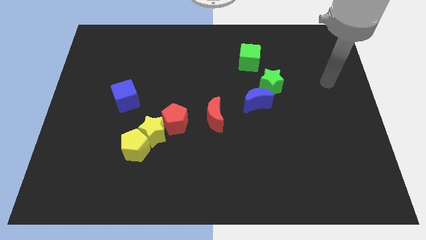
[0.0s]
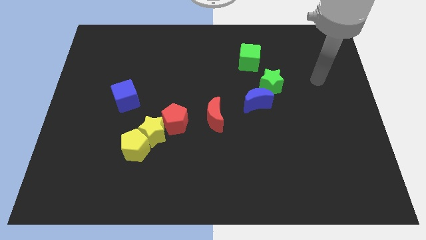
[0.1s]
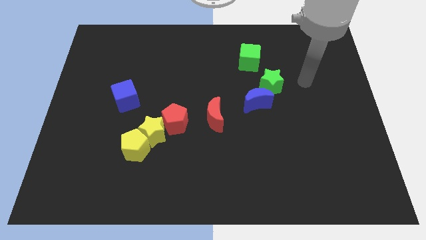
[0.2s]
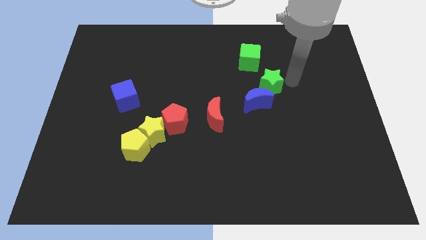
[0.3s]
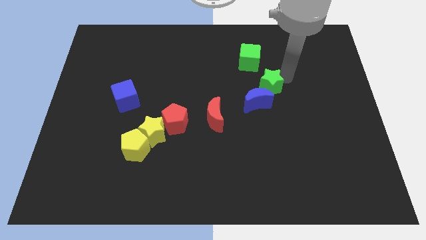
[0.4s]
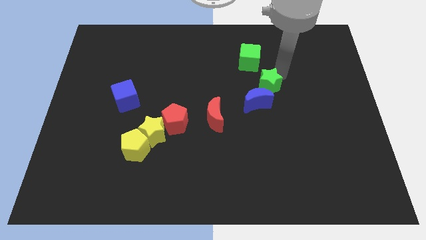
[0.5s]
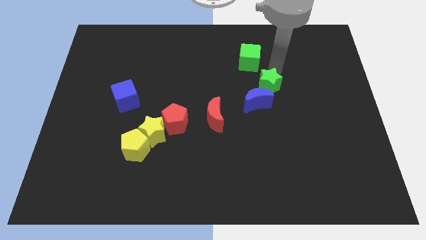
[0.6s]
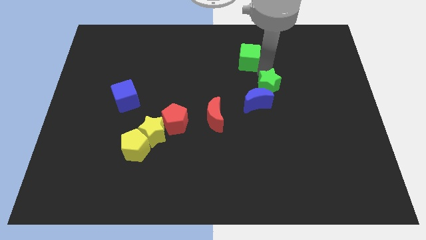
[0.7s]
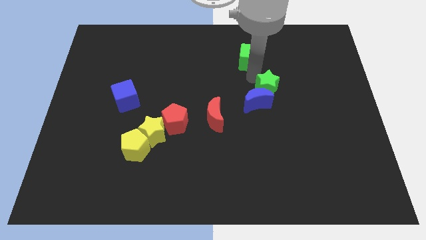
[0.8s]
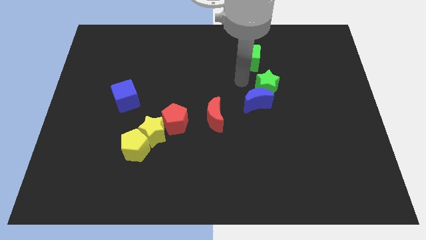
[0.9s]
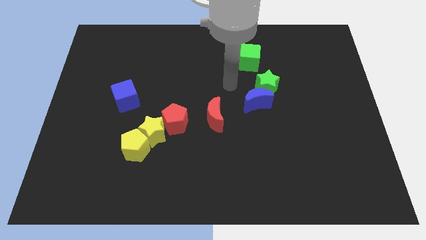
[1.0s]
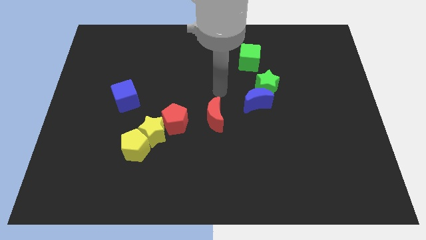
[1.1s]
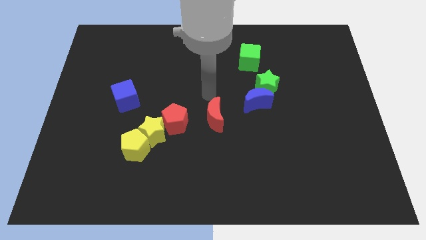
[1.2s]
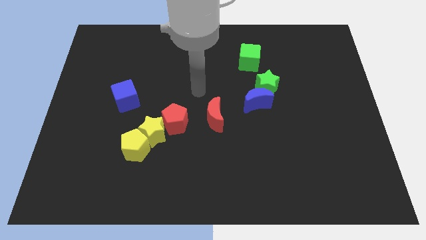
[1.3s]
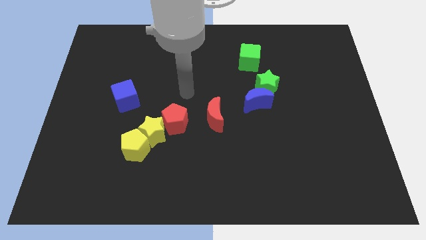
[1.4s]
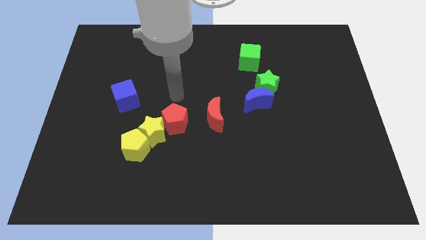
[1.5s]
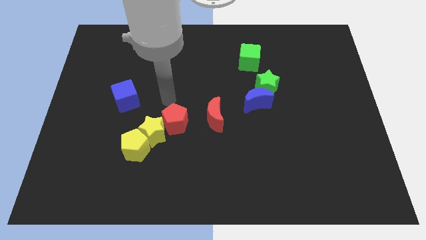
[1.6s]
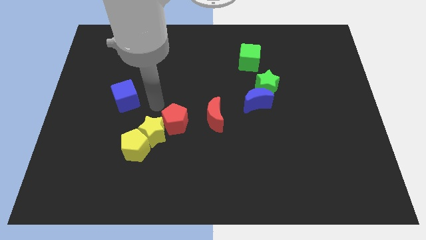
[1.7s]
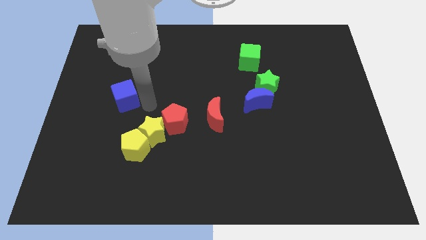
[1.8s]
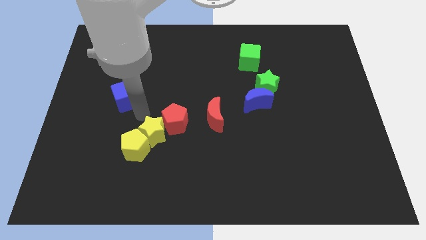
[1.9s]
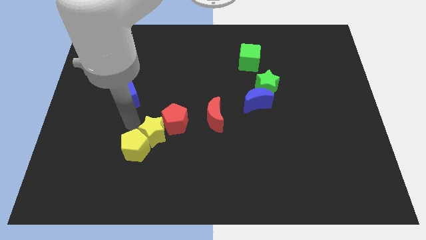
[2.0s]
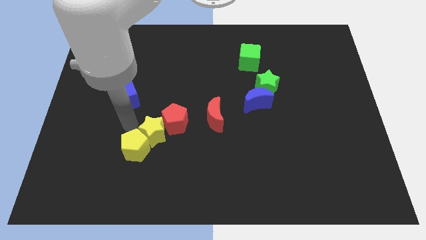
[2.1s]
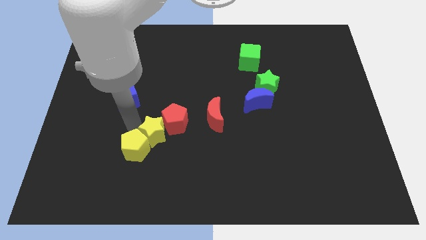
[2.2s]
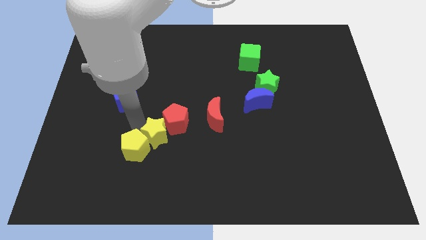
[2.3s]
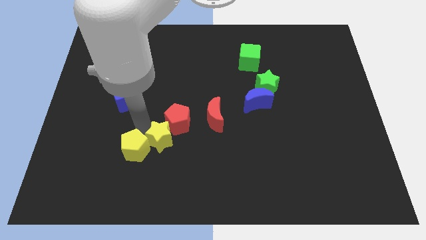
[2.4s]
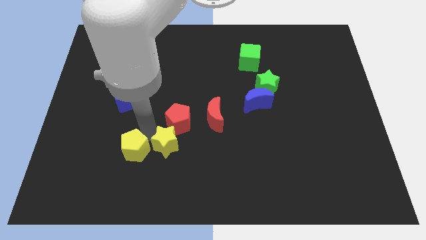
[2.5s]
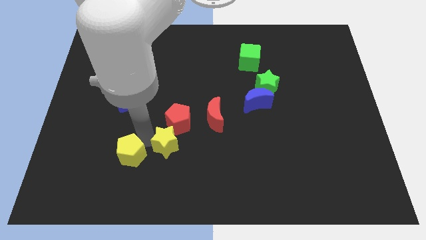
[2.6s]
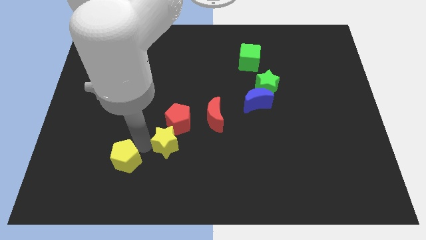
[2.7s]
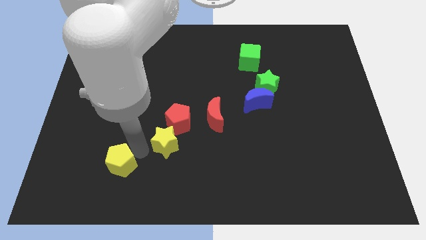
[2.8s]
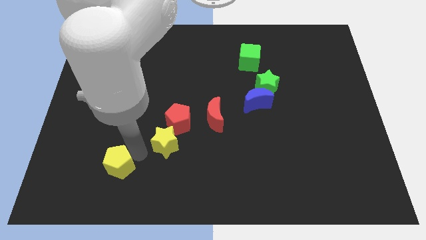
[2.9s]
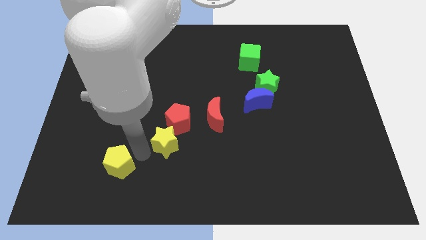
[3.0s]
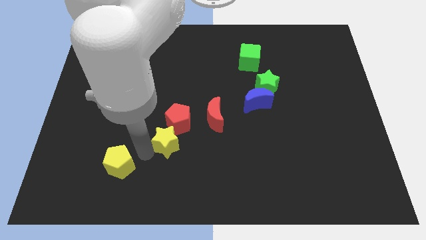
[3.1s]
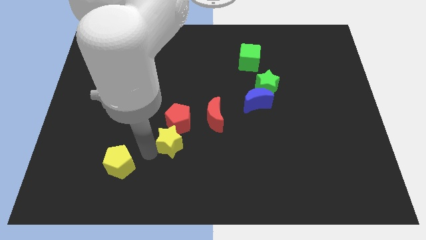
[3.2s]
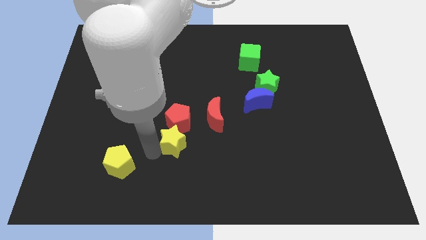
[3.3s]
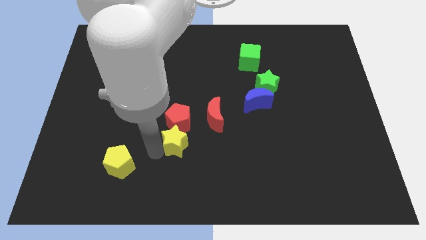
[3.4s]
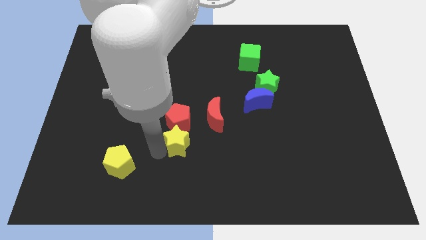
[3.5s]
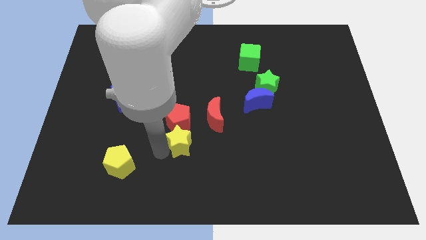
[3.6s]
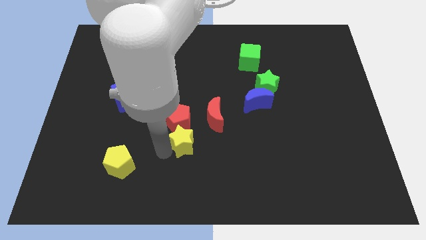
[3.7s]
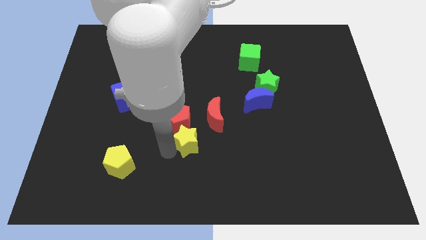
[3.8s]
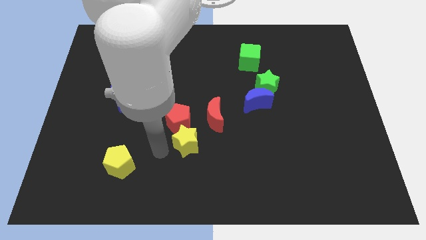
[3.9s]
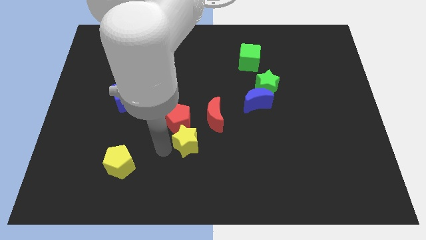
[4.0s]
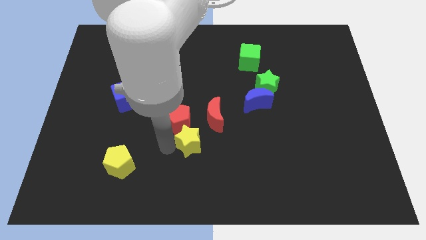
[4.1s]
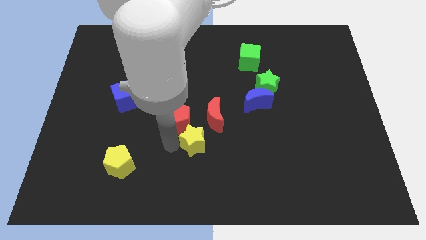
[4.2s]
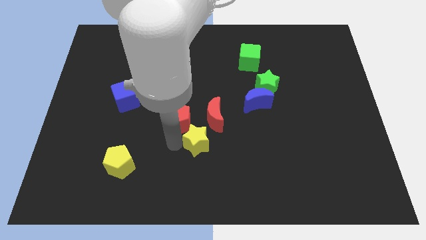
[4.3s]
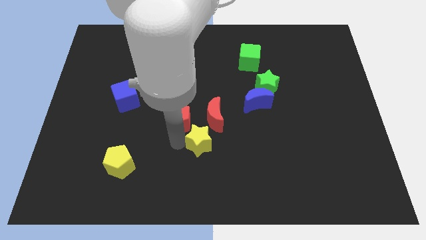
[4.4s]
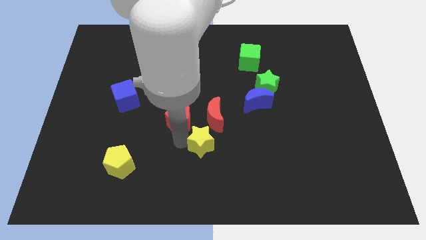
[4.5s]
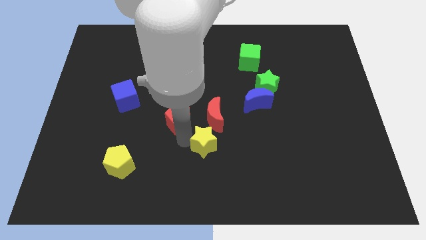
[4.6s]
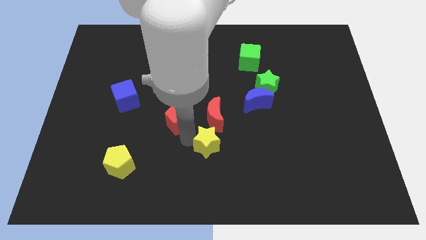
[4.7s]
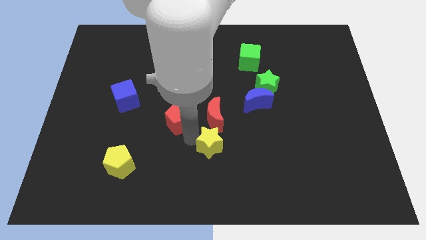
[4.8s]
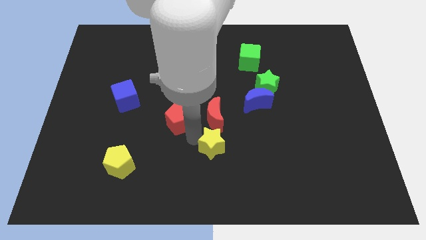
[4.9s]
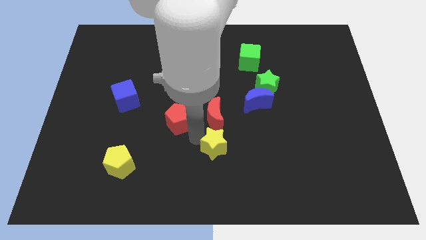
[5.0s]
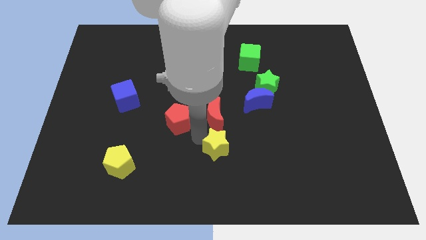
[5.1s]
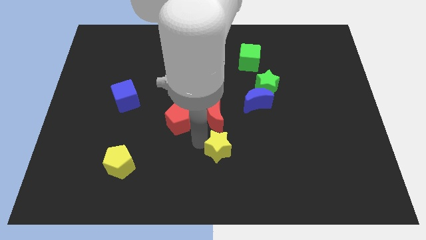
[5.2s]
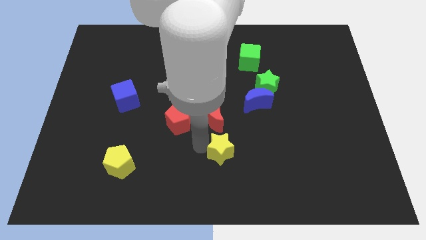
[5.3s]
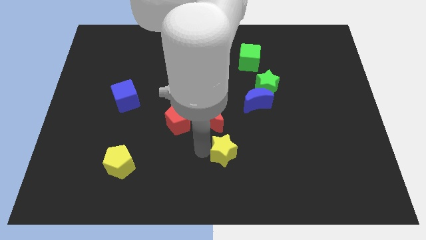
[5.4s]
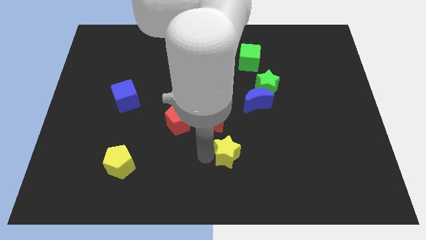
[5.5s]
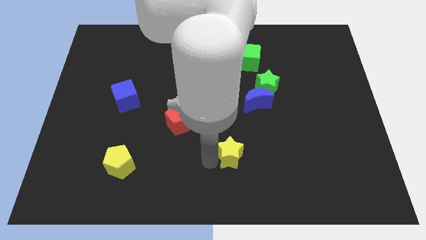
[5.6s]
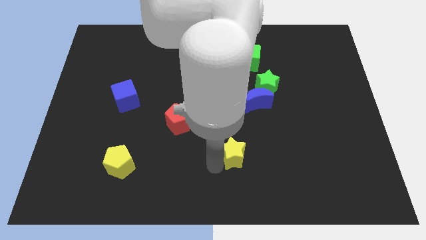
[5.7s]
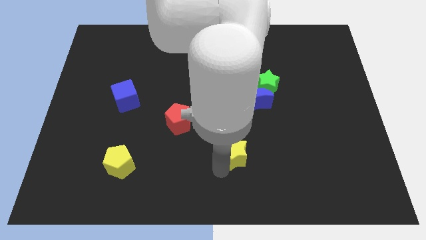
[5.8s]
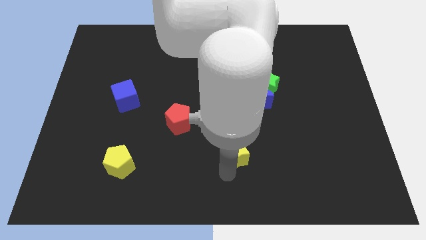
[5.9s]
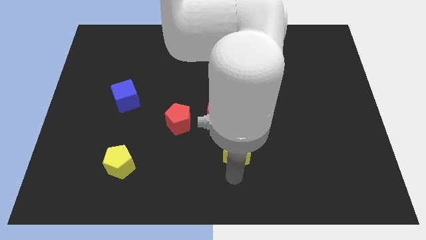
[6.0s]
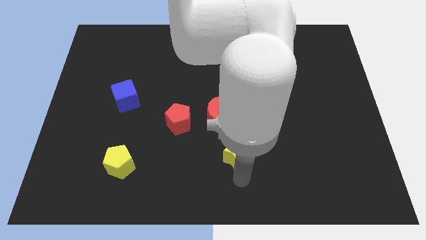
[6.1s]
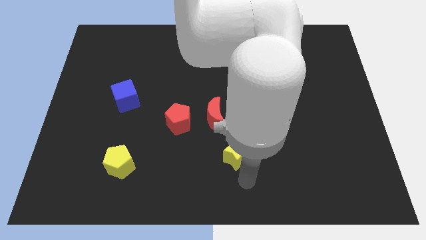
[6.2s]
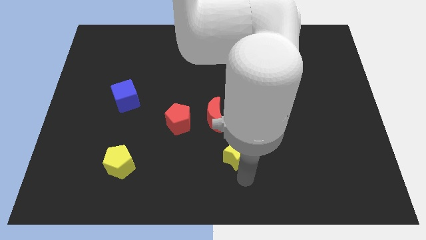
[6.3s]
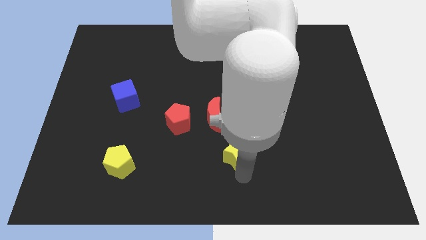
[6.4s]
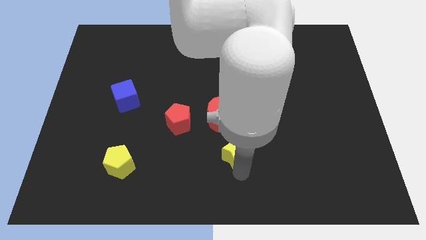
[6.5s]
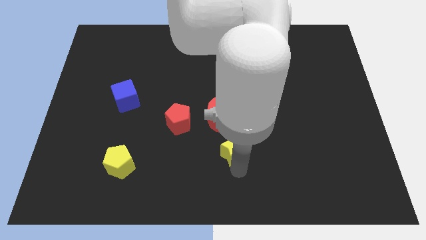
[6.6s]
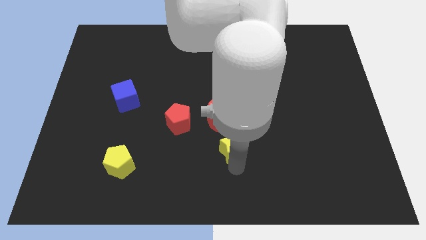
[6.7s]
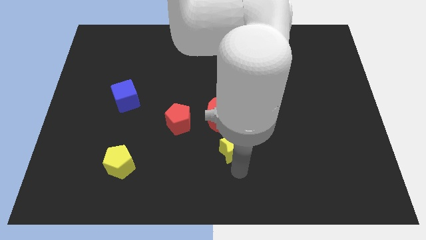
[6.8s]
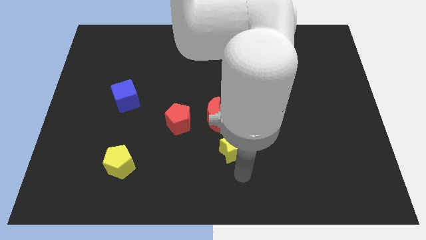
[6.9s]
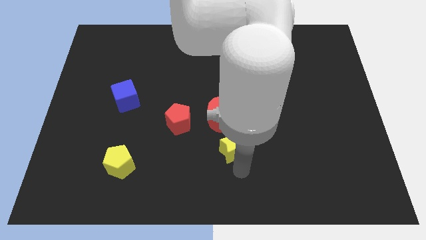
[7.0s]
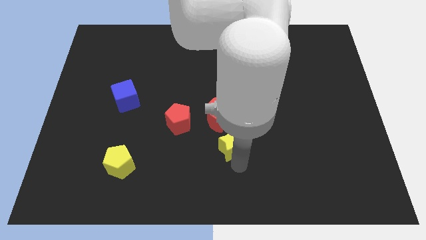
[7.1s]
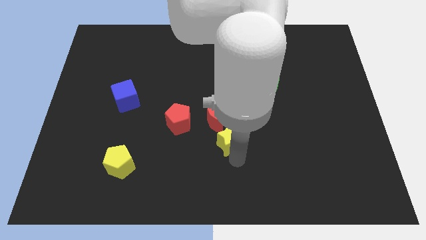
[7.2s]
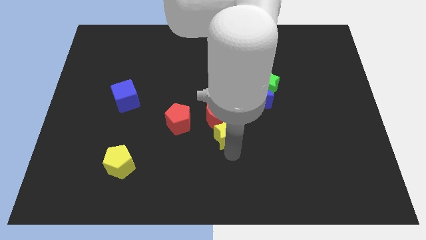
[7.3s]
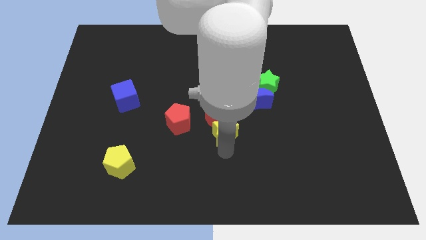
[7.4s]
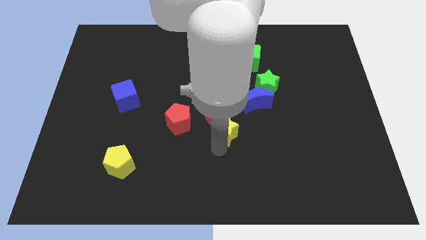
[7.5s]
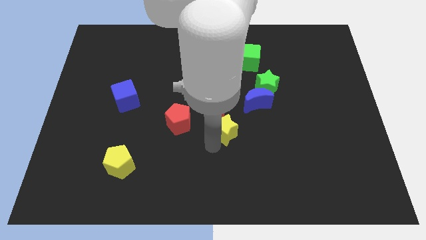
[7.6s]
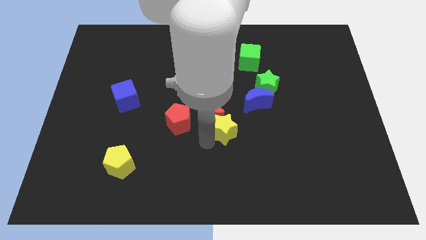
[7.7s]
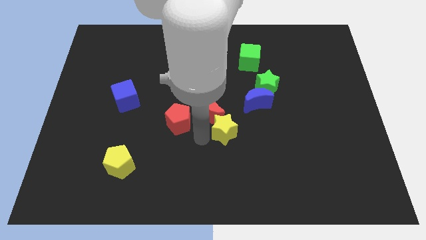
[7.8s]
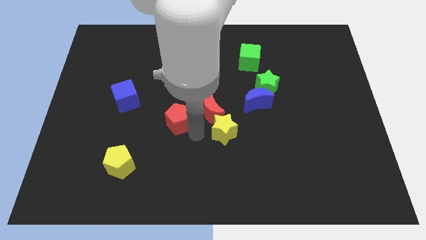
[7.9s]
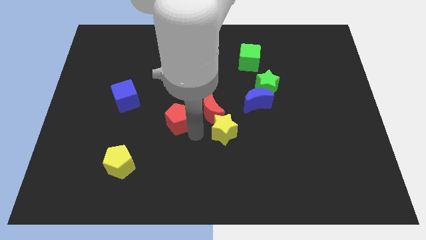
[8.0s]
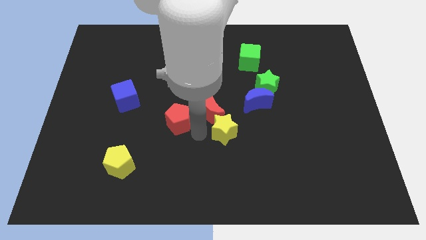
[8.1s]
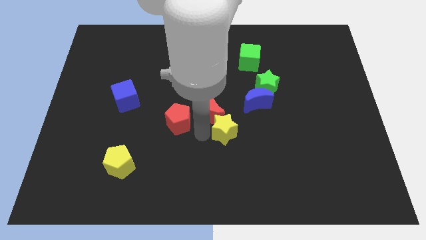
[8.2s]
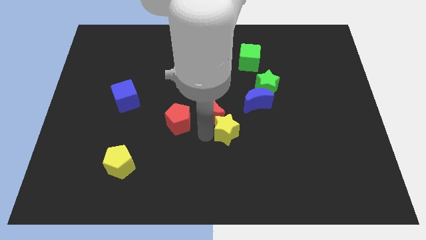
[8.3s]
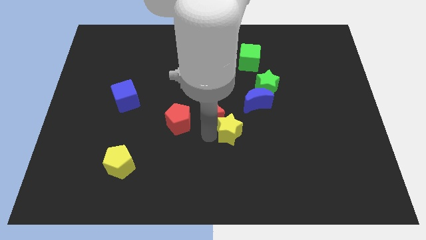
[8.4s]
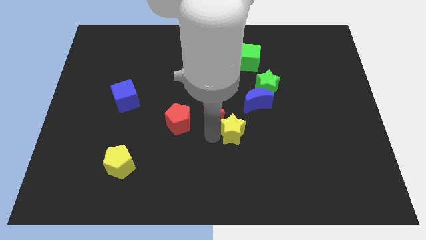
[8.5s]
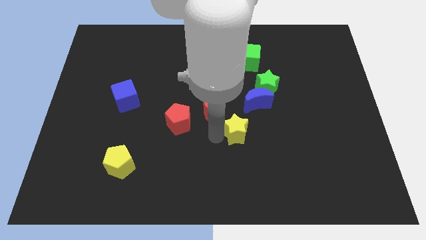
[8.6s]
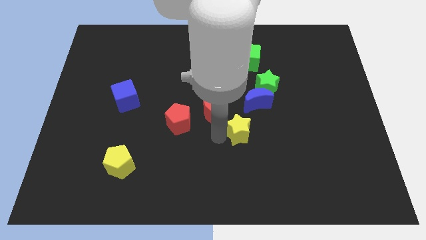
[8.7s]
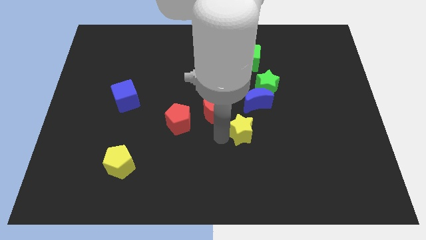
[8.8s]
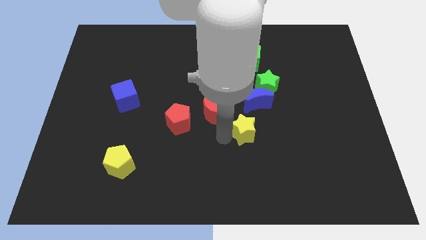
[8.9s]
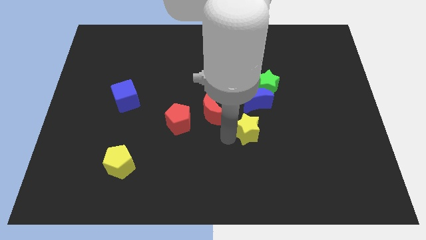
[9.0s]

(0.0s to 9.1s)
put the yellow star right of the red moon
